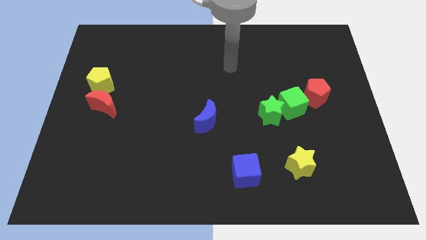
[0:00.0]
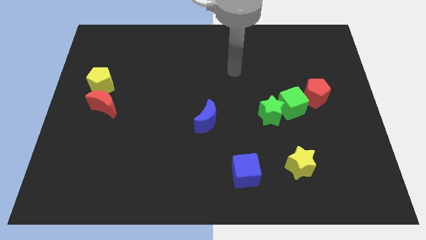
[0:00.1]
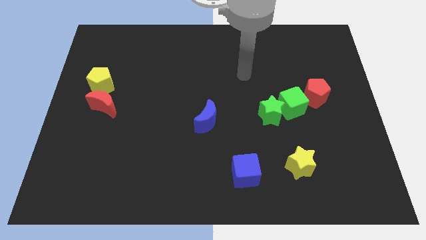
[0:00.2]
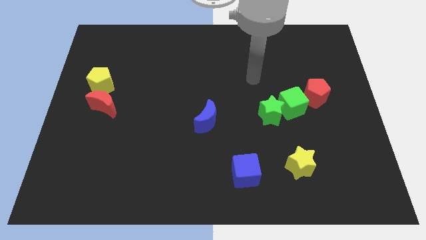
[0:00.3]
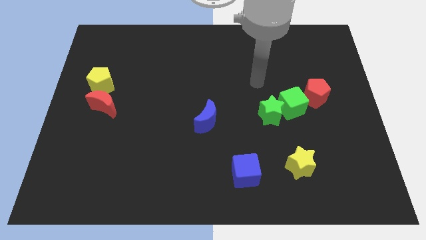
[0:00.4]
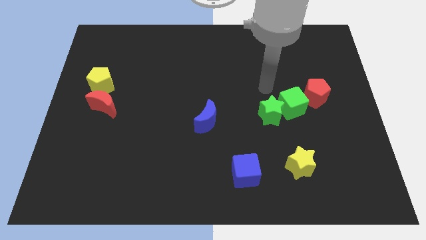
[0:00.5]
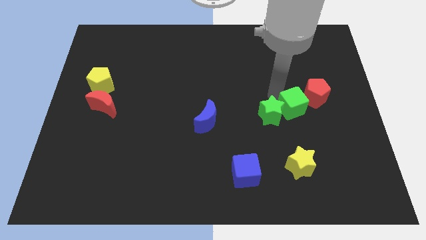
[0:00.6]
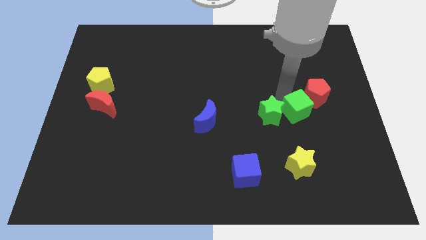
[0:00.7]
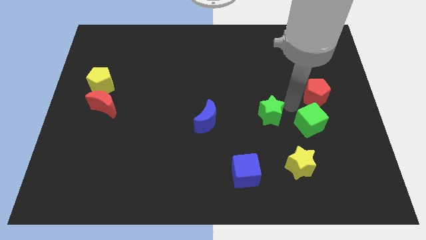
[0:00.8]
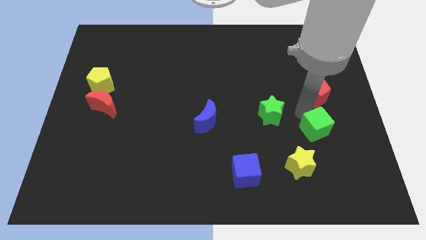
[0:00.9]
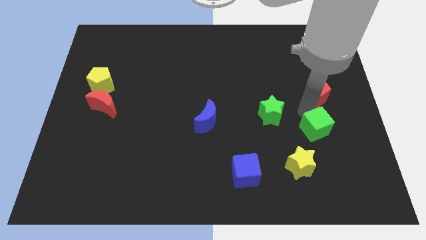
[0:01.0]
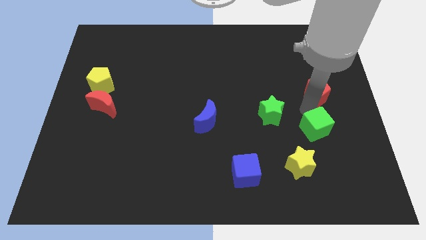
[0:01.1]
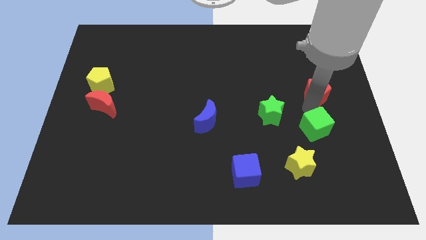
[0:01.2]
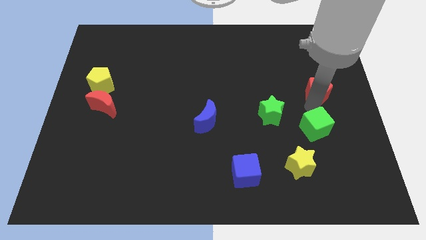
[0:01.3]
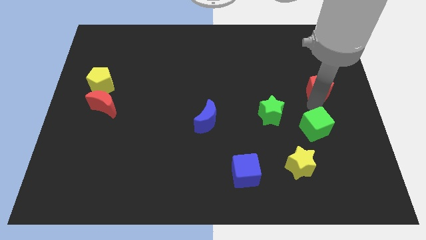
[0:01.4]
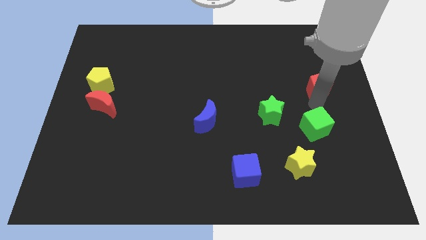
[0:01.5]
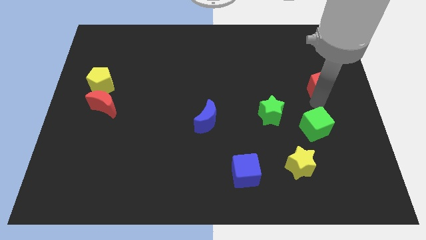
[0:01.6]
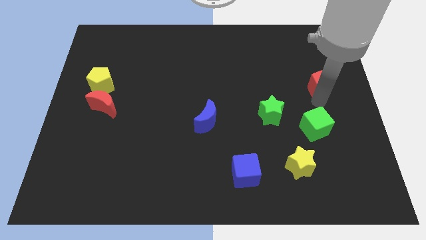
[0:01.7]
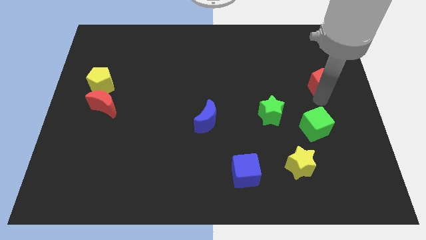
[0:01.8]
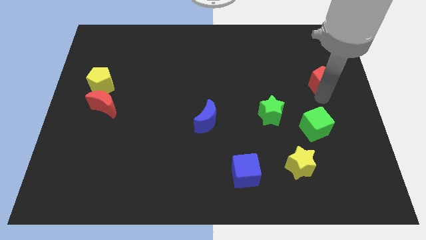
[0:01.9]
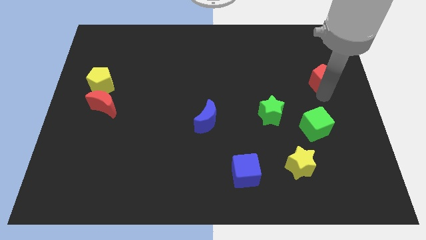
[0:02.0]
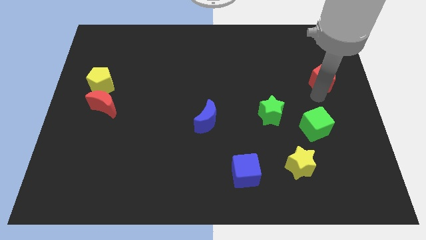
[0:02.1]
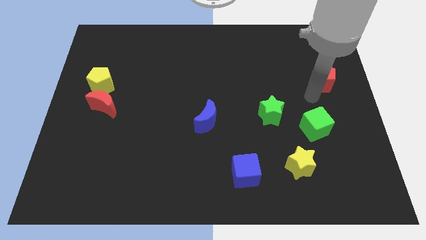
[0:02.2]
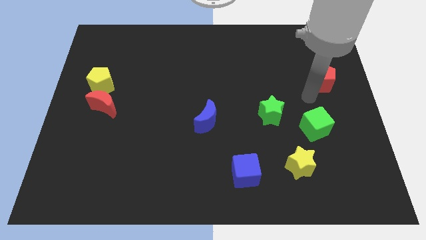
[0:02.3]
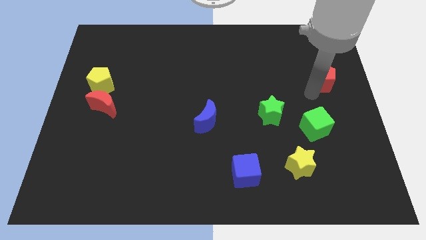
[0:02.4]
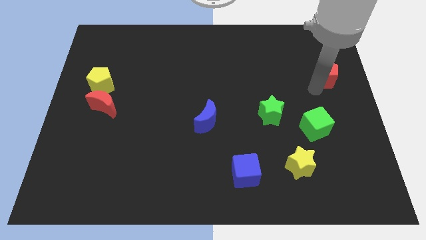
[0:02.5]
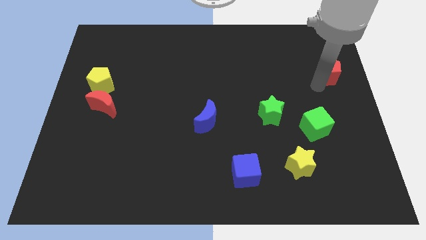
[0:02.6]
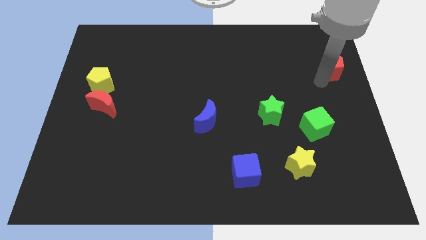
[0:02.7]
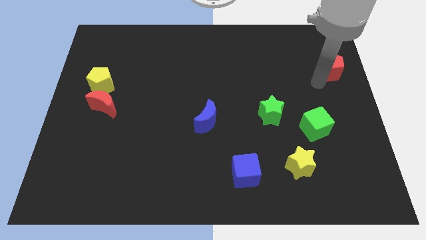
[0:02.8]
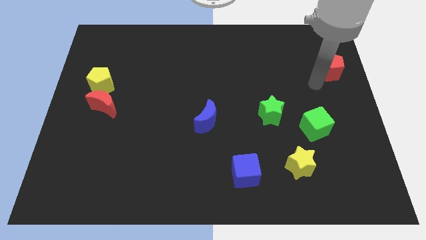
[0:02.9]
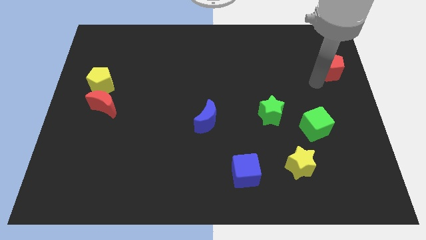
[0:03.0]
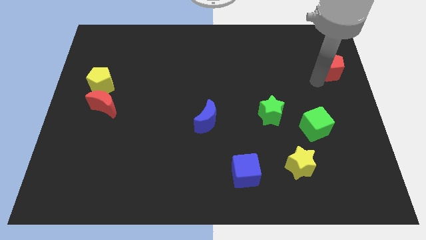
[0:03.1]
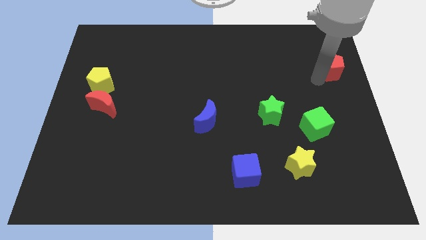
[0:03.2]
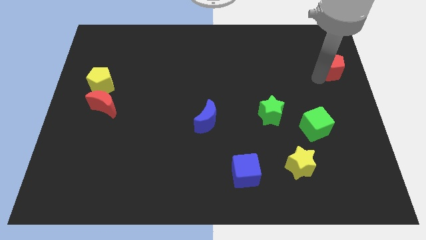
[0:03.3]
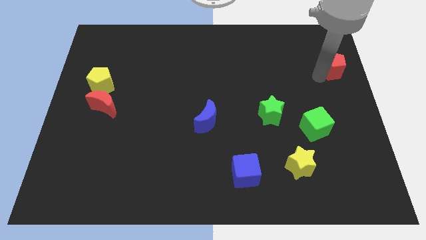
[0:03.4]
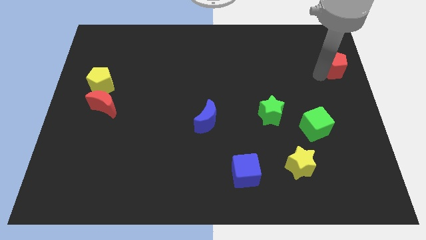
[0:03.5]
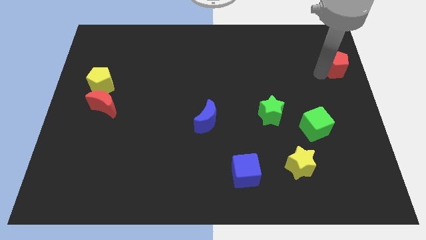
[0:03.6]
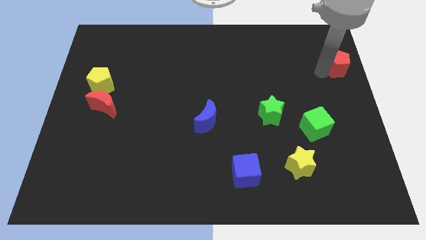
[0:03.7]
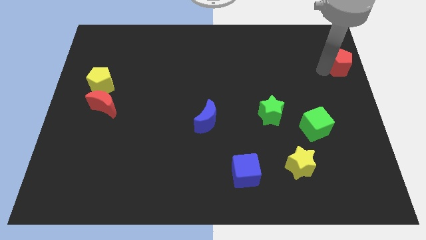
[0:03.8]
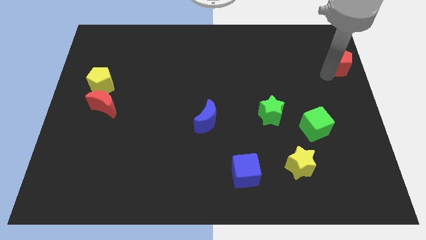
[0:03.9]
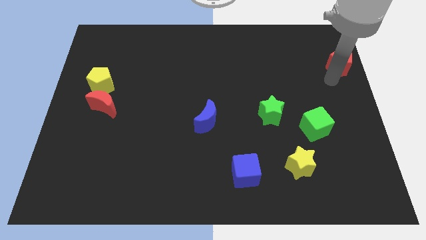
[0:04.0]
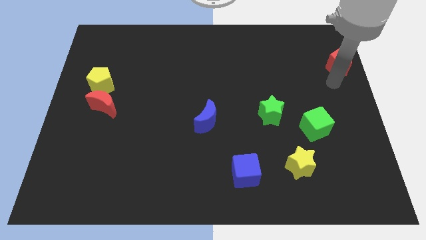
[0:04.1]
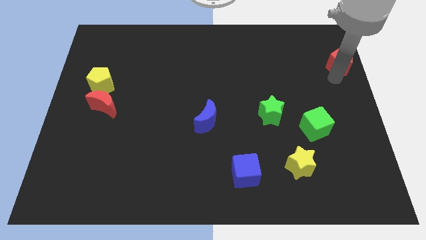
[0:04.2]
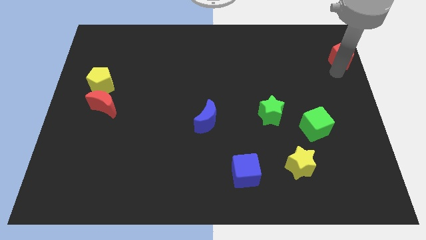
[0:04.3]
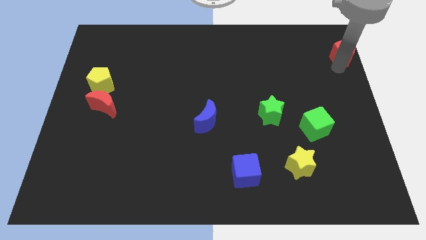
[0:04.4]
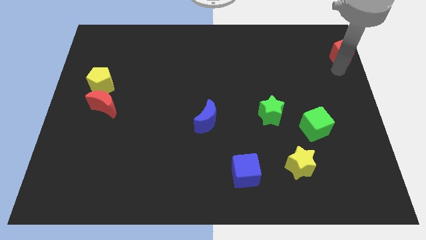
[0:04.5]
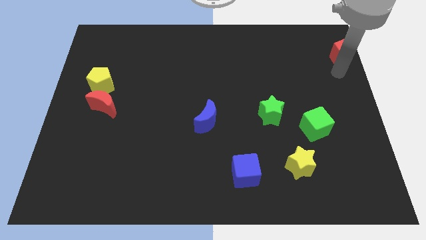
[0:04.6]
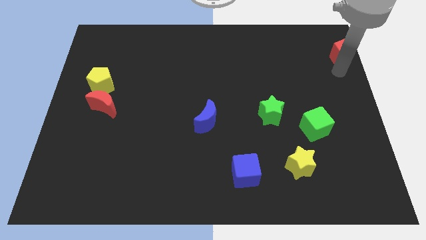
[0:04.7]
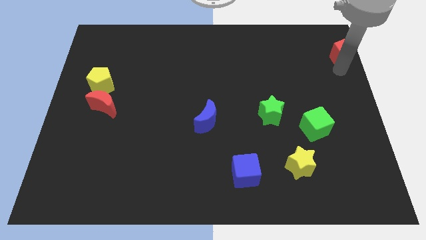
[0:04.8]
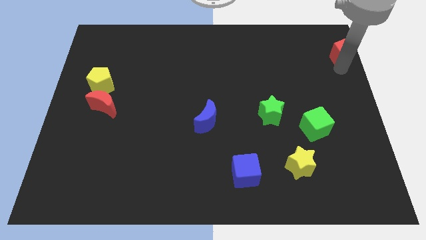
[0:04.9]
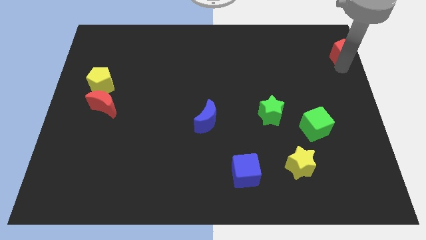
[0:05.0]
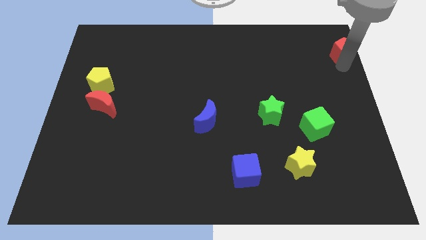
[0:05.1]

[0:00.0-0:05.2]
move the red pentagon to the top right corner

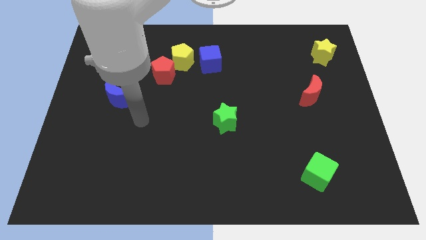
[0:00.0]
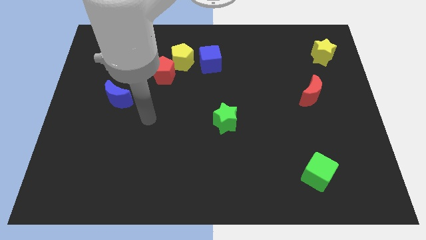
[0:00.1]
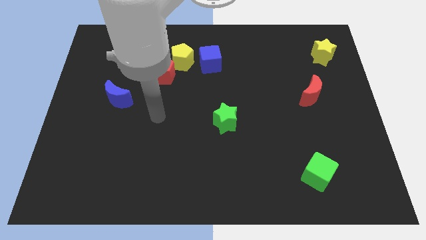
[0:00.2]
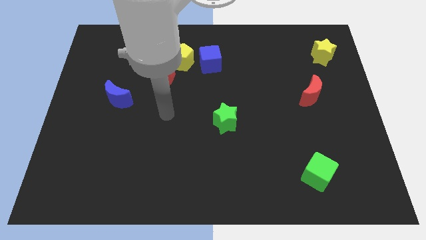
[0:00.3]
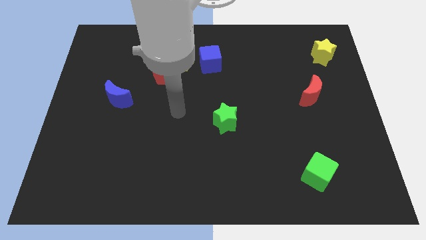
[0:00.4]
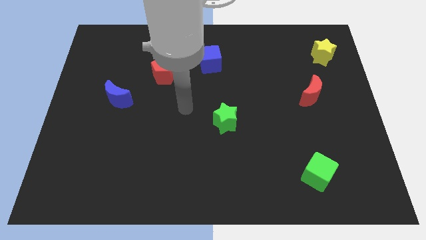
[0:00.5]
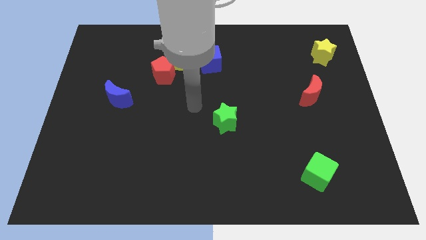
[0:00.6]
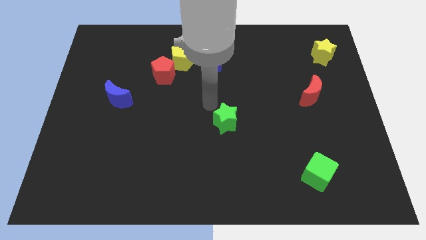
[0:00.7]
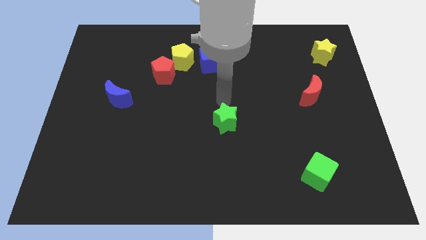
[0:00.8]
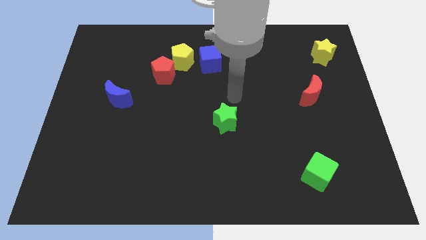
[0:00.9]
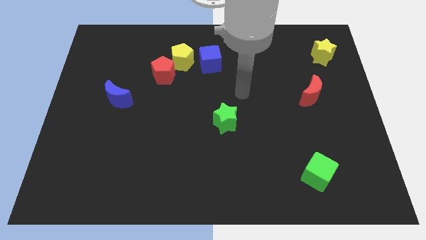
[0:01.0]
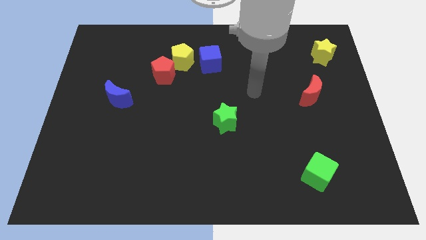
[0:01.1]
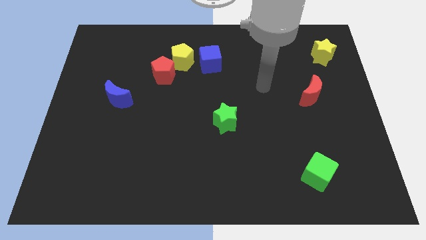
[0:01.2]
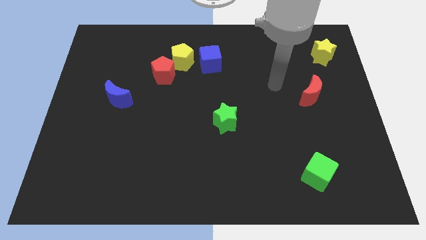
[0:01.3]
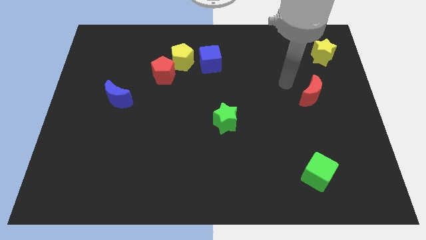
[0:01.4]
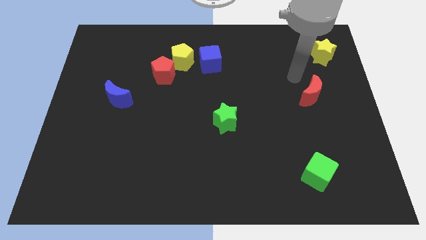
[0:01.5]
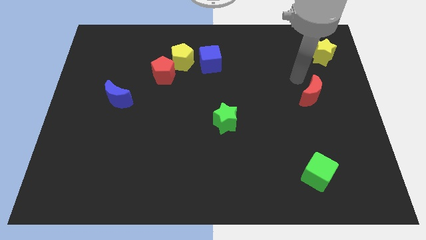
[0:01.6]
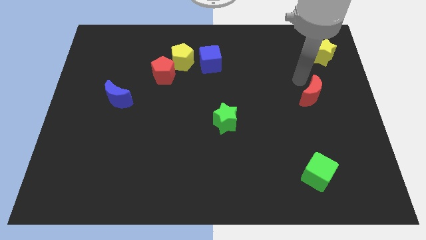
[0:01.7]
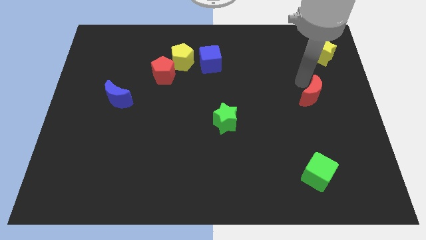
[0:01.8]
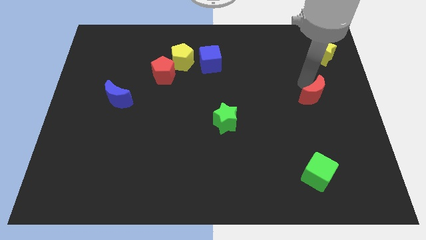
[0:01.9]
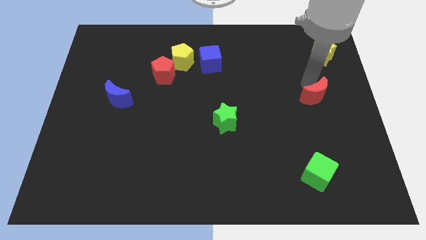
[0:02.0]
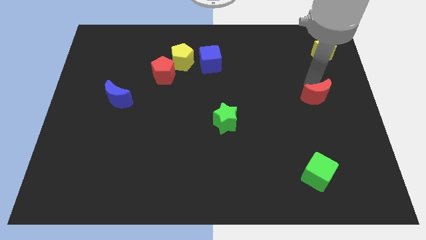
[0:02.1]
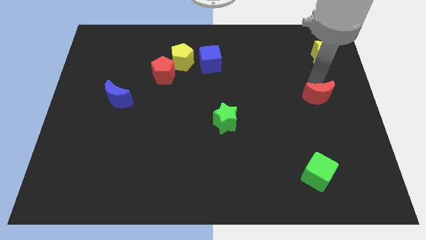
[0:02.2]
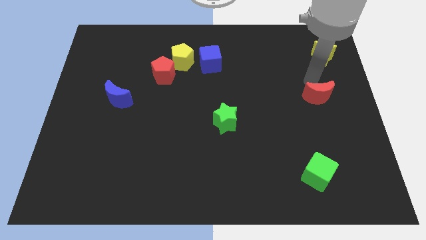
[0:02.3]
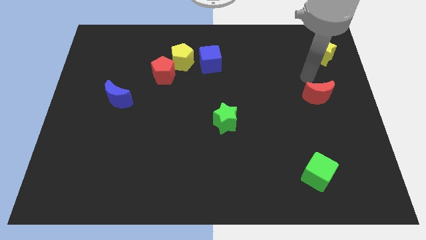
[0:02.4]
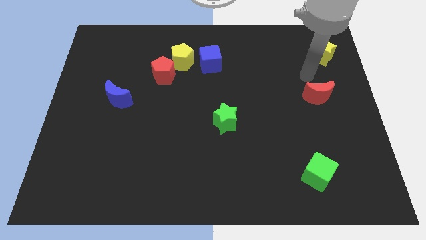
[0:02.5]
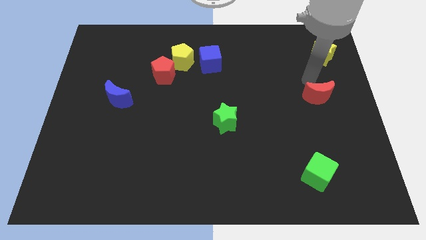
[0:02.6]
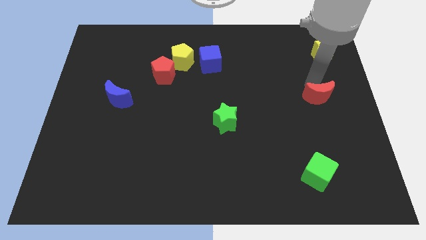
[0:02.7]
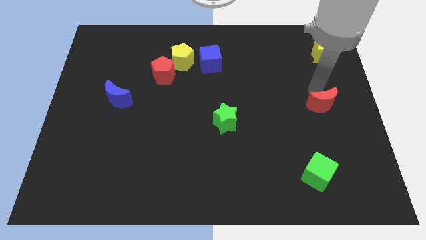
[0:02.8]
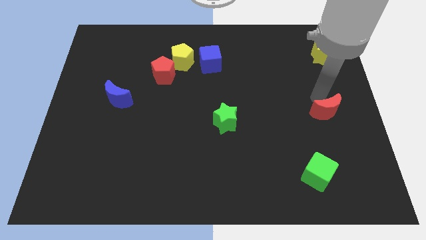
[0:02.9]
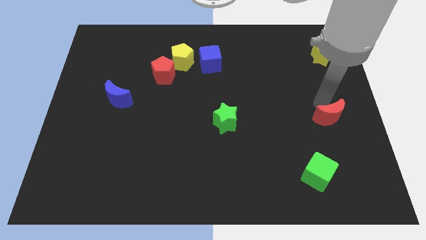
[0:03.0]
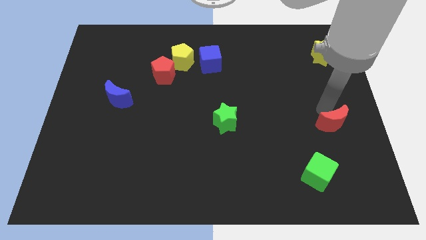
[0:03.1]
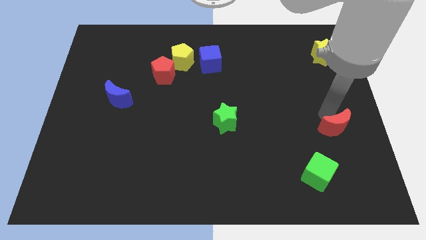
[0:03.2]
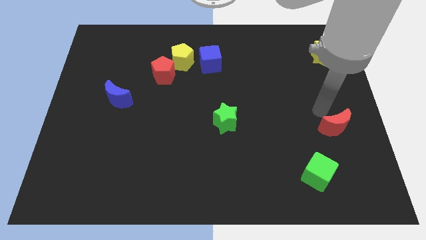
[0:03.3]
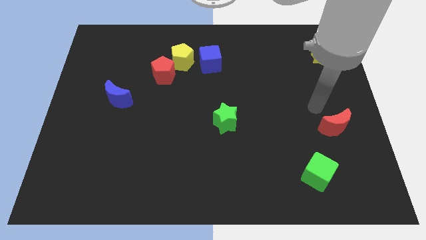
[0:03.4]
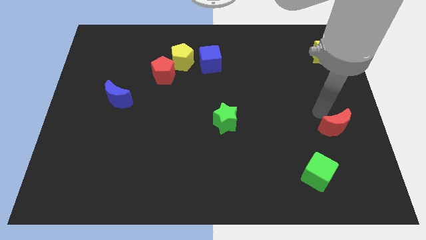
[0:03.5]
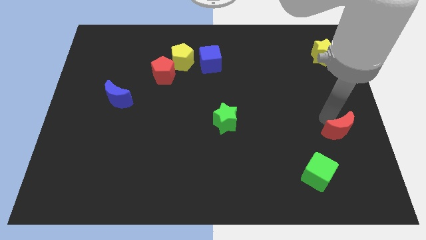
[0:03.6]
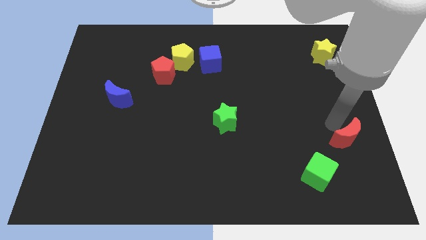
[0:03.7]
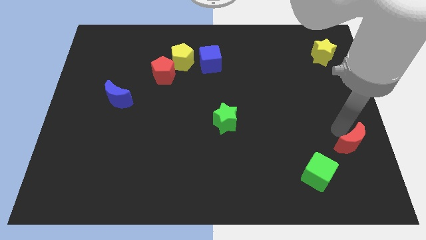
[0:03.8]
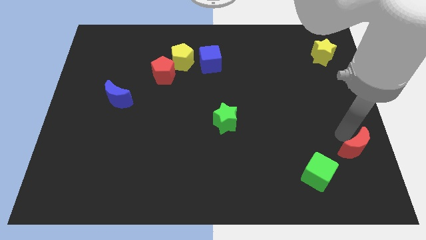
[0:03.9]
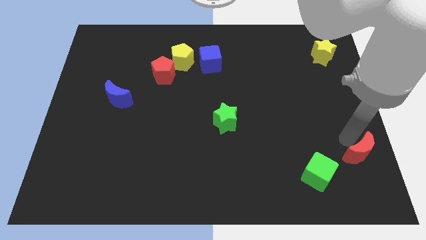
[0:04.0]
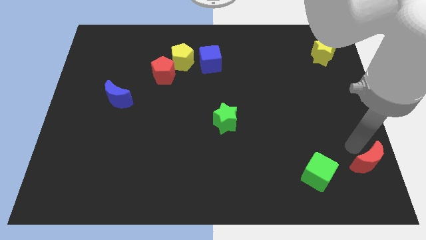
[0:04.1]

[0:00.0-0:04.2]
slide the red moon to the bottom right
